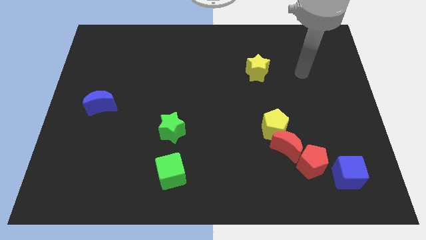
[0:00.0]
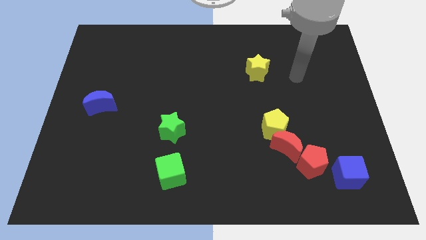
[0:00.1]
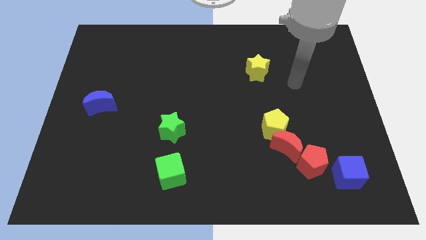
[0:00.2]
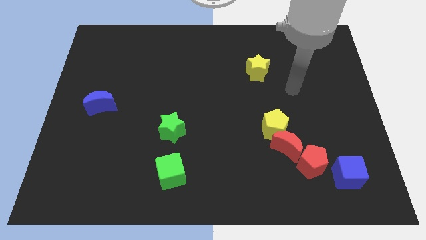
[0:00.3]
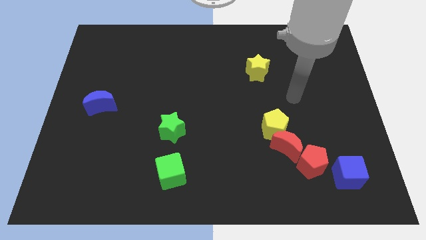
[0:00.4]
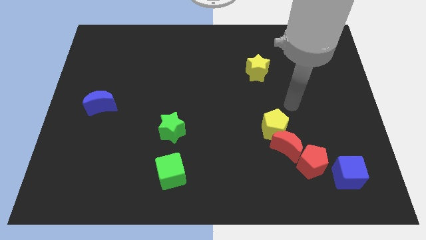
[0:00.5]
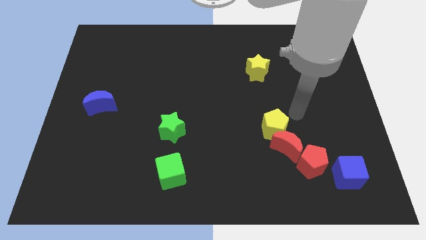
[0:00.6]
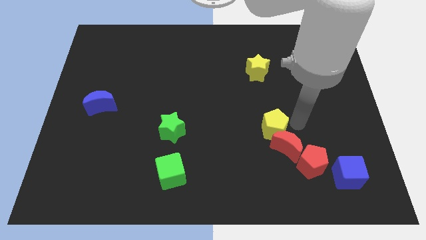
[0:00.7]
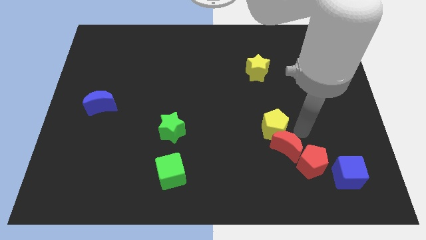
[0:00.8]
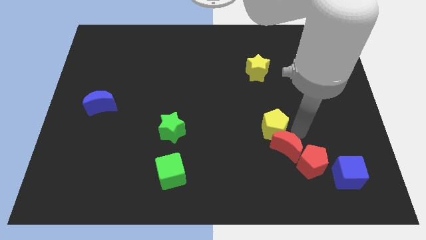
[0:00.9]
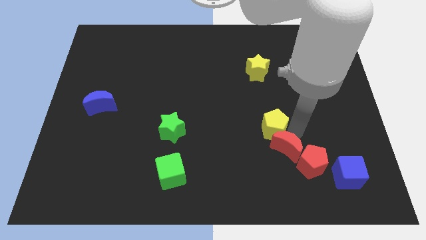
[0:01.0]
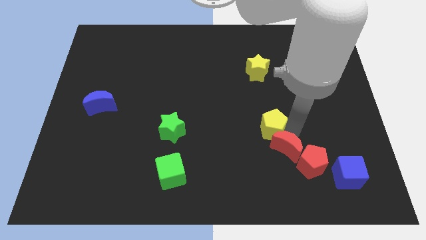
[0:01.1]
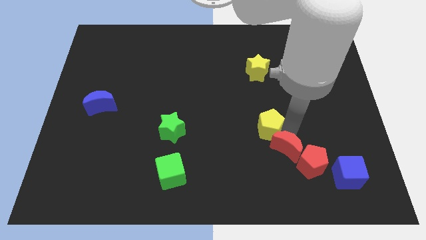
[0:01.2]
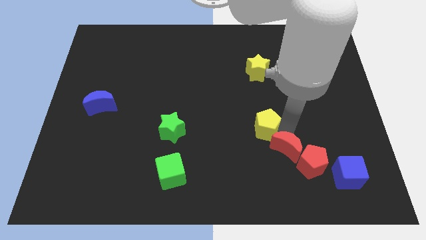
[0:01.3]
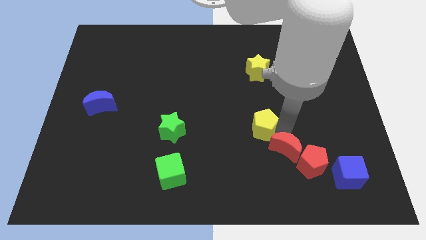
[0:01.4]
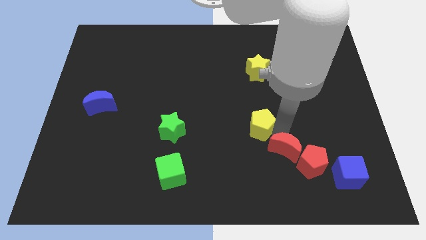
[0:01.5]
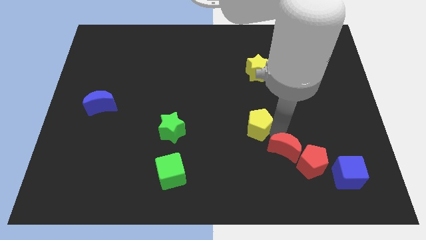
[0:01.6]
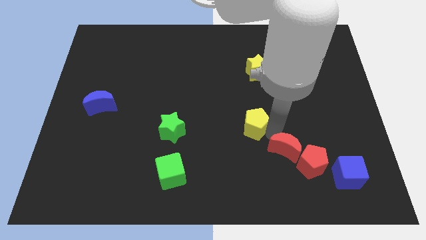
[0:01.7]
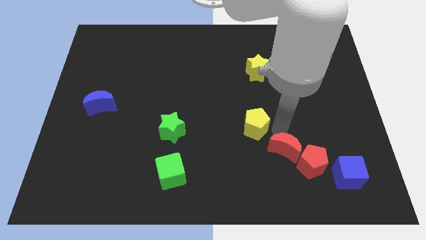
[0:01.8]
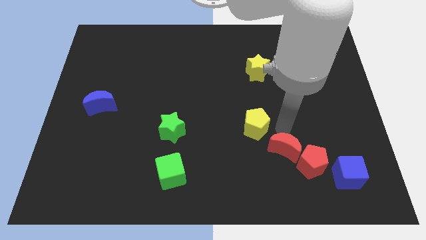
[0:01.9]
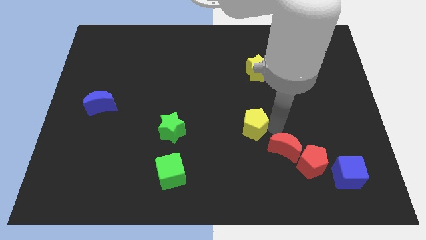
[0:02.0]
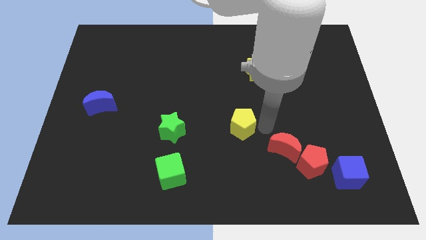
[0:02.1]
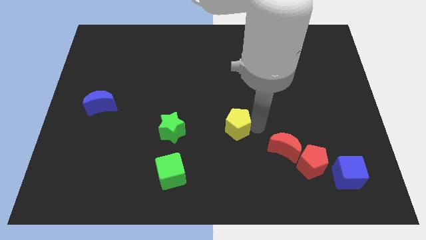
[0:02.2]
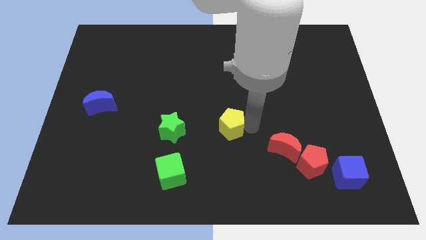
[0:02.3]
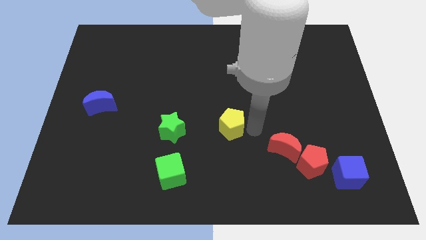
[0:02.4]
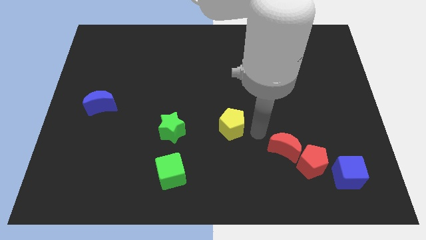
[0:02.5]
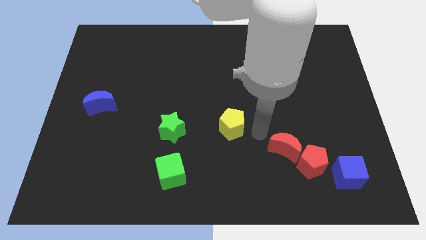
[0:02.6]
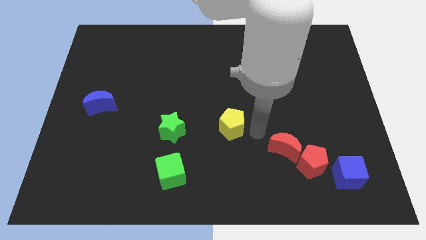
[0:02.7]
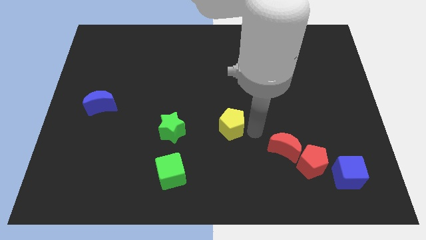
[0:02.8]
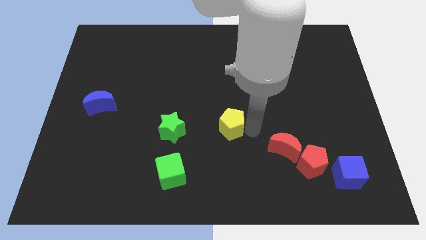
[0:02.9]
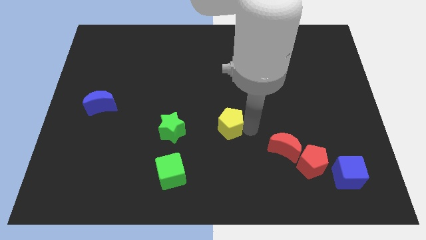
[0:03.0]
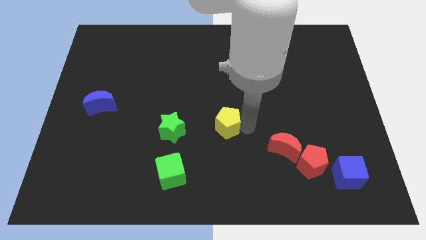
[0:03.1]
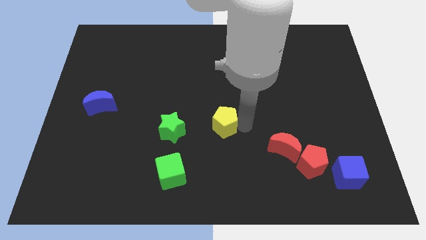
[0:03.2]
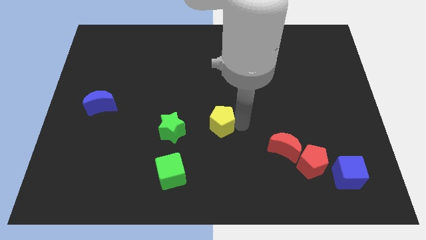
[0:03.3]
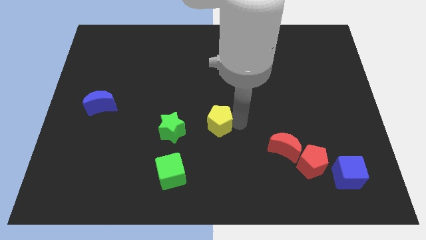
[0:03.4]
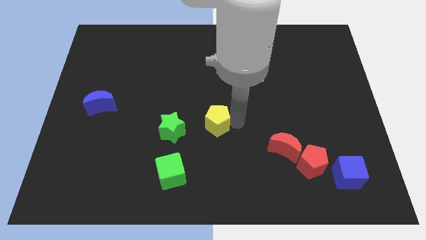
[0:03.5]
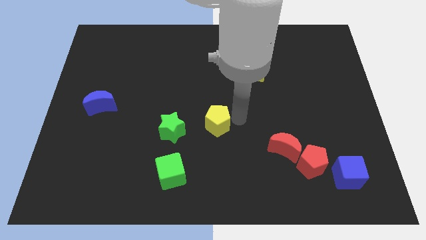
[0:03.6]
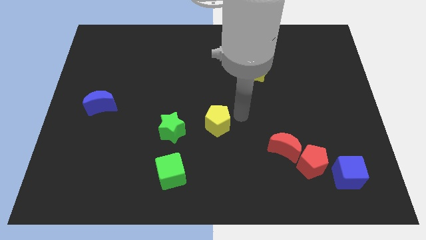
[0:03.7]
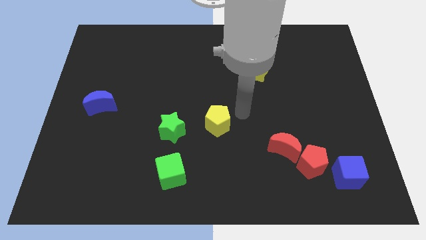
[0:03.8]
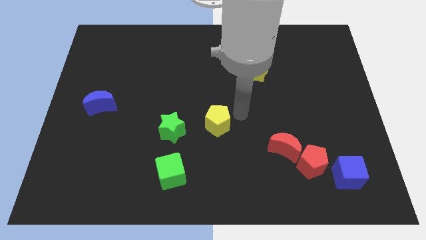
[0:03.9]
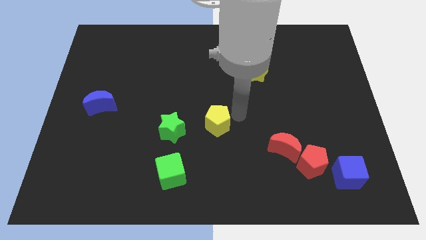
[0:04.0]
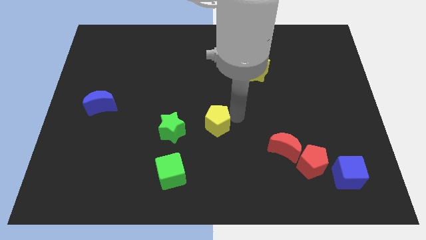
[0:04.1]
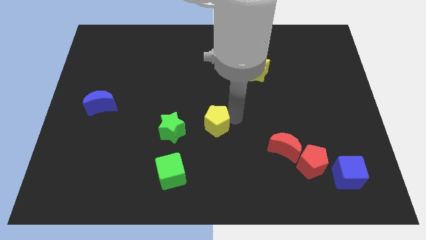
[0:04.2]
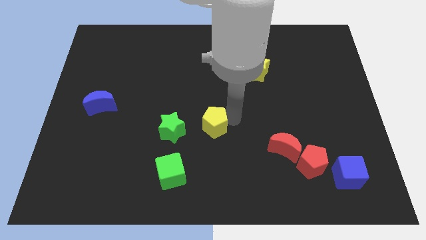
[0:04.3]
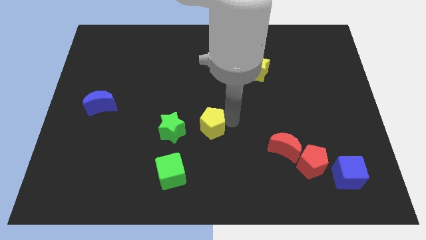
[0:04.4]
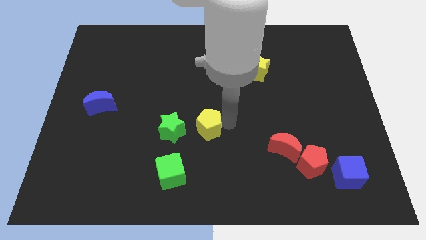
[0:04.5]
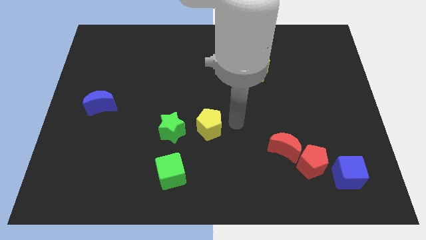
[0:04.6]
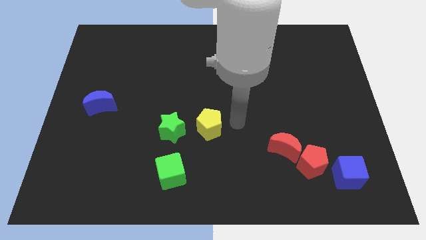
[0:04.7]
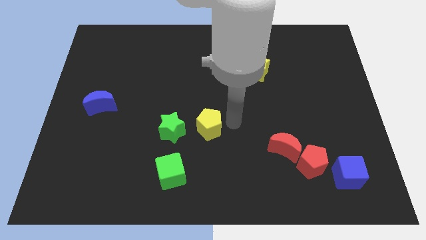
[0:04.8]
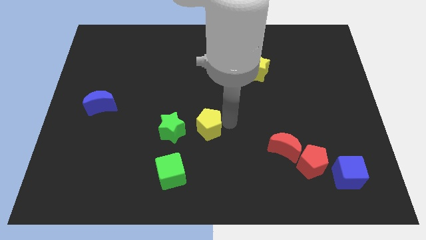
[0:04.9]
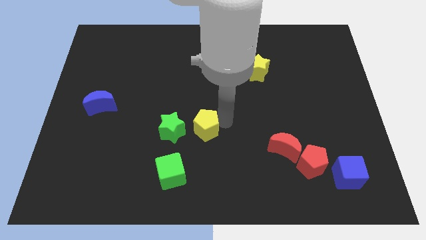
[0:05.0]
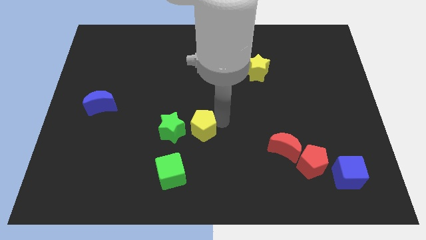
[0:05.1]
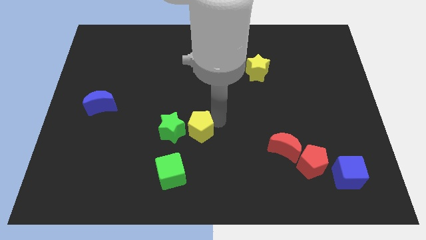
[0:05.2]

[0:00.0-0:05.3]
push the yellow pentagon to the green star

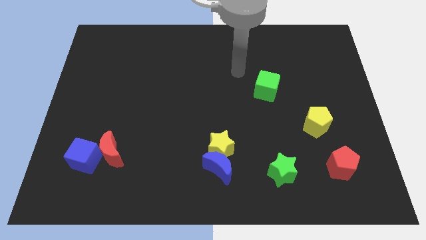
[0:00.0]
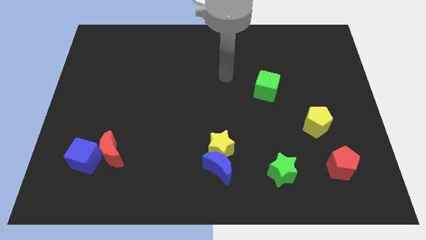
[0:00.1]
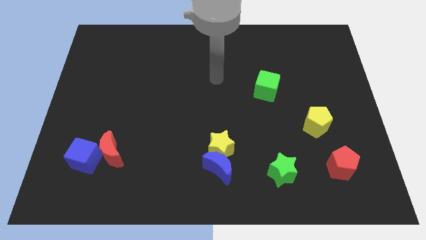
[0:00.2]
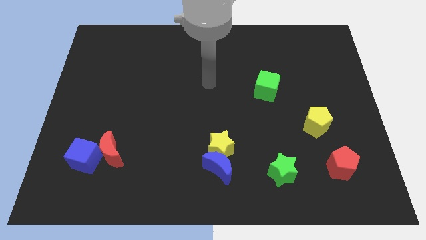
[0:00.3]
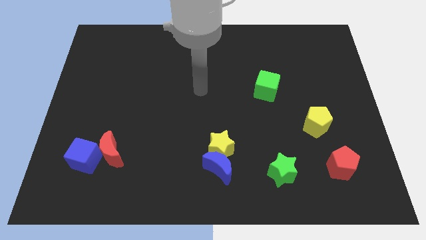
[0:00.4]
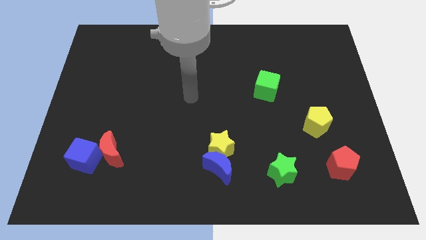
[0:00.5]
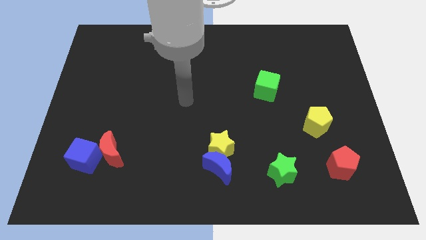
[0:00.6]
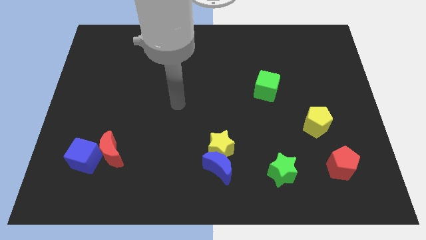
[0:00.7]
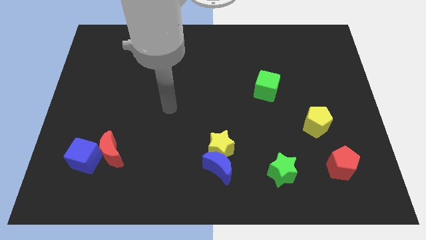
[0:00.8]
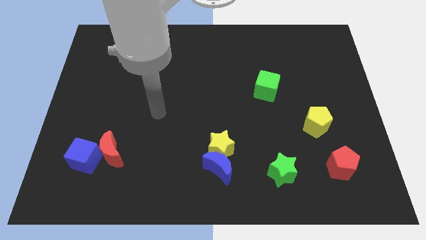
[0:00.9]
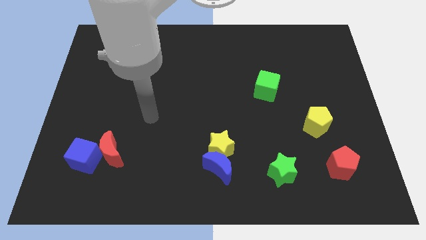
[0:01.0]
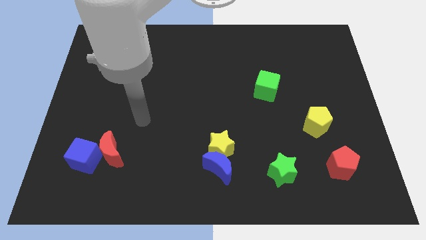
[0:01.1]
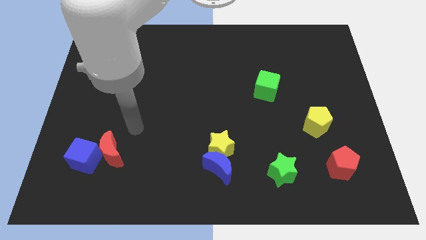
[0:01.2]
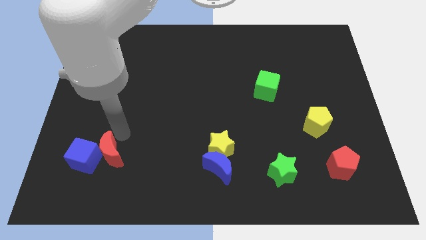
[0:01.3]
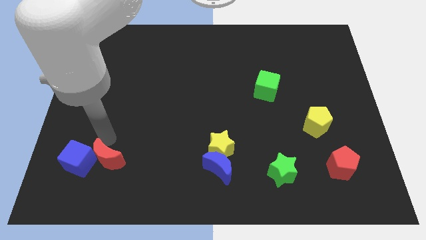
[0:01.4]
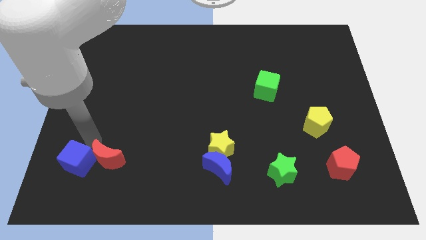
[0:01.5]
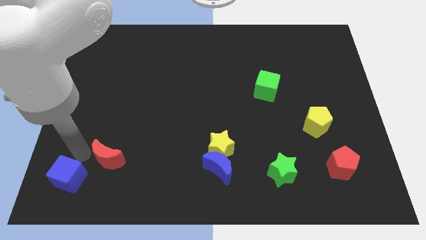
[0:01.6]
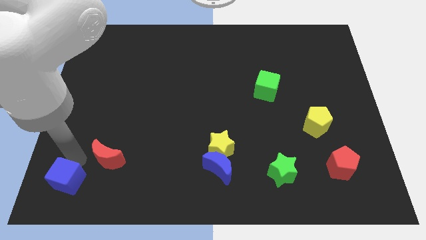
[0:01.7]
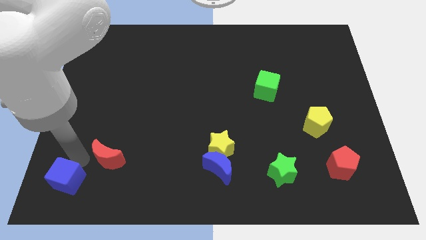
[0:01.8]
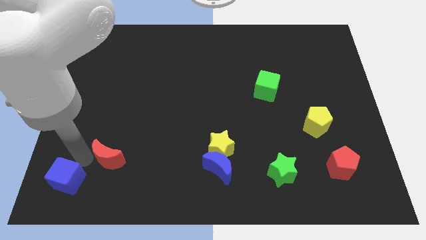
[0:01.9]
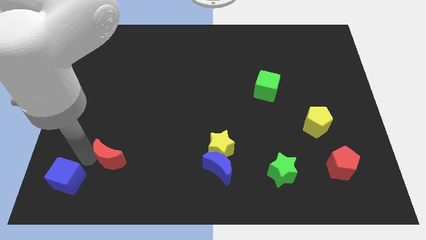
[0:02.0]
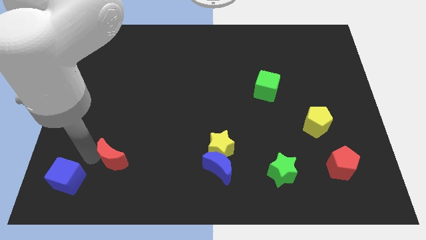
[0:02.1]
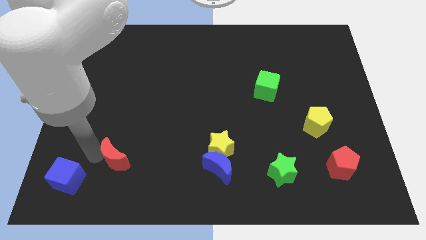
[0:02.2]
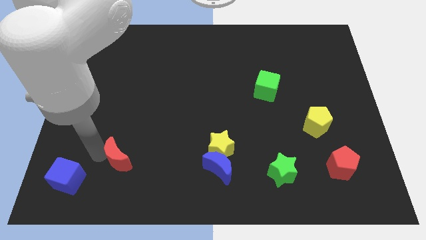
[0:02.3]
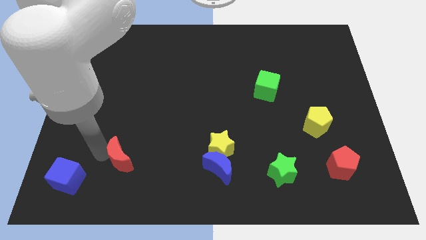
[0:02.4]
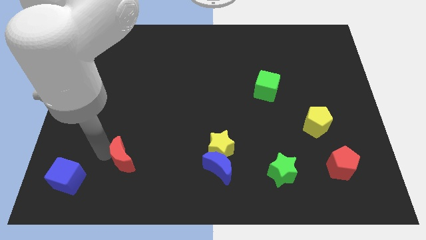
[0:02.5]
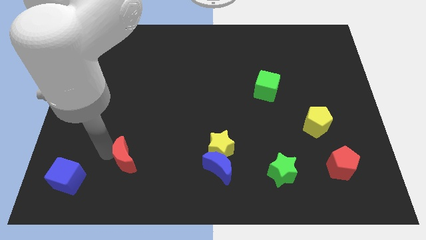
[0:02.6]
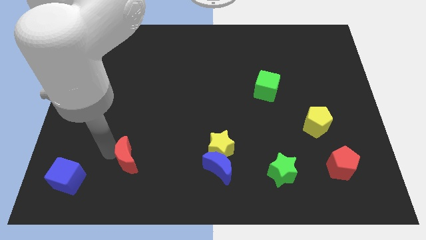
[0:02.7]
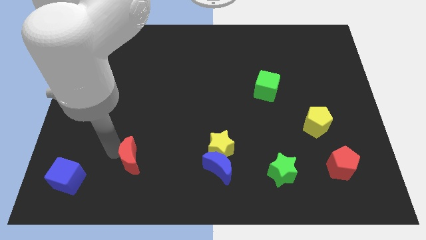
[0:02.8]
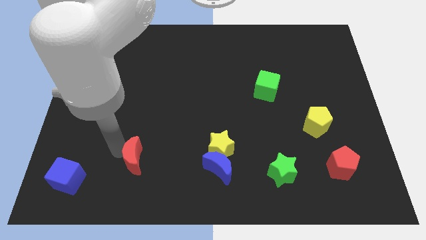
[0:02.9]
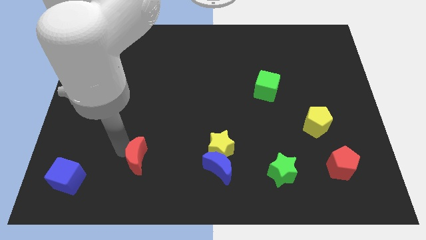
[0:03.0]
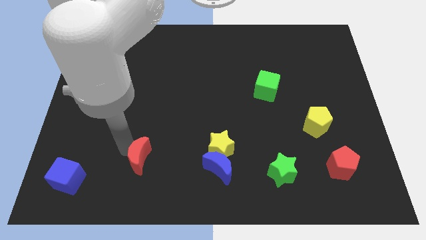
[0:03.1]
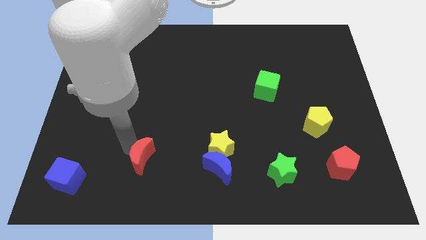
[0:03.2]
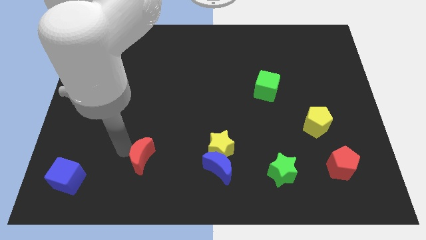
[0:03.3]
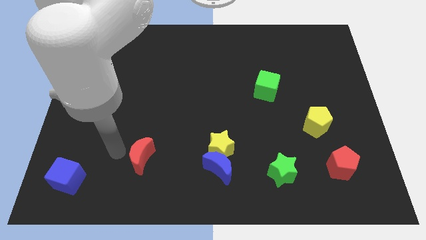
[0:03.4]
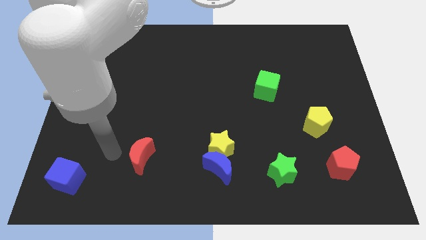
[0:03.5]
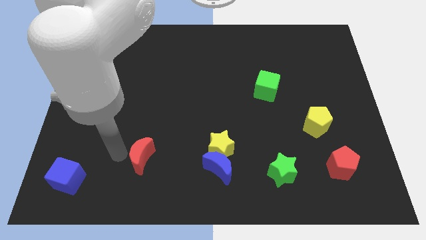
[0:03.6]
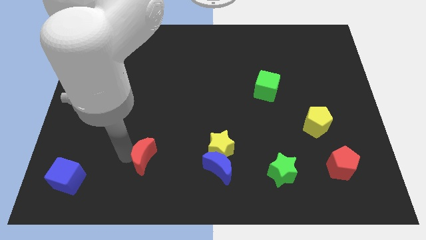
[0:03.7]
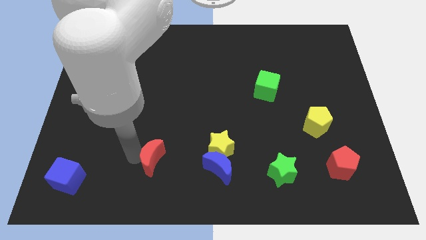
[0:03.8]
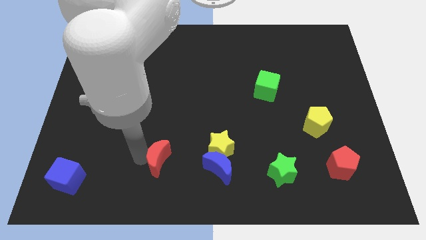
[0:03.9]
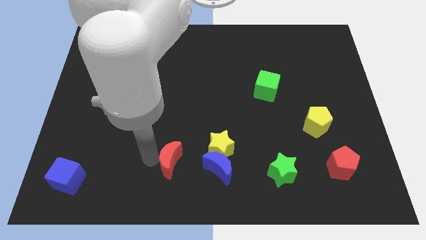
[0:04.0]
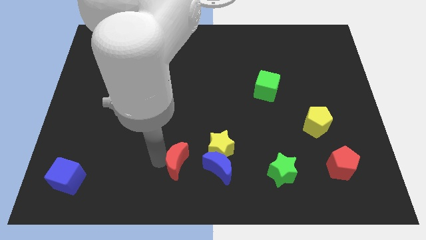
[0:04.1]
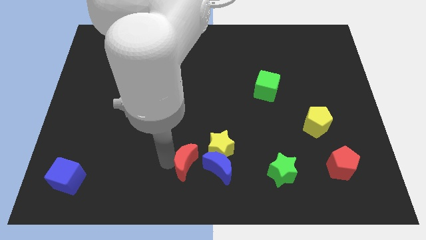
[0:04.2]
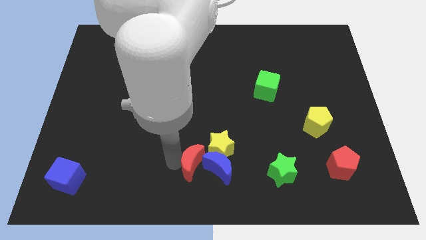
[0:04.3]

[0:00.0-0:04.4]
move the red moon next to the blue moon
